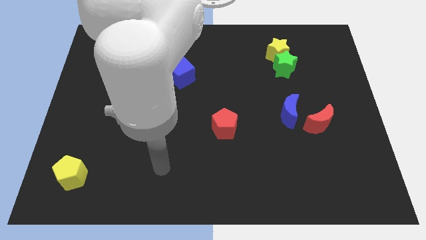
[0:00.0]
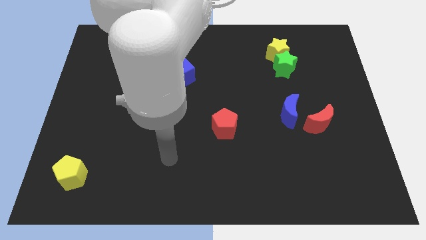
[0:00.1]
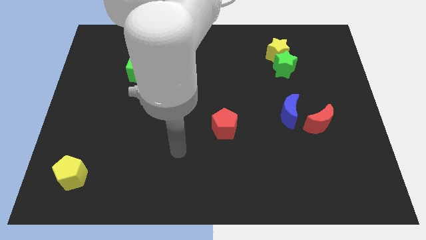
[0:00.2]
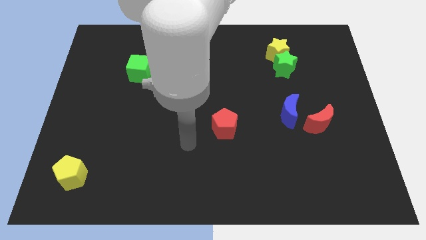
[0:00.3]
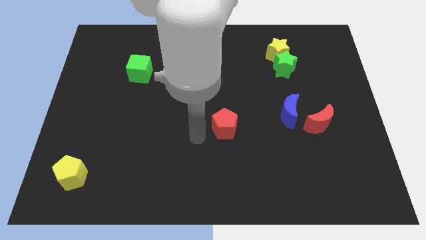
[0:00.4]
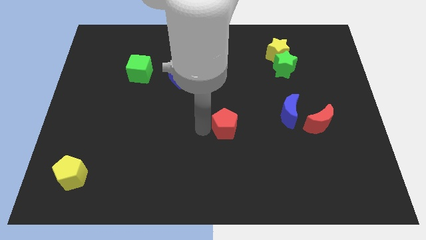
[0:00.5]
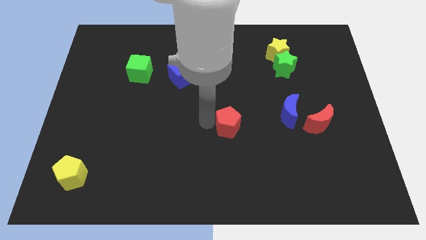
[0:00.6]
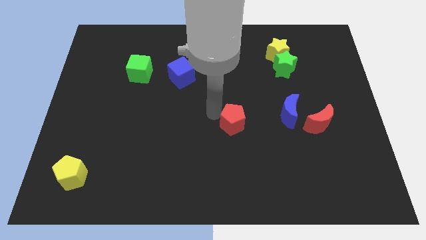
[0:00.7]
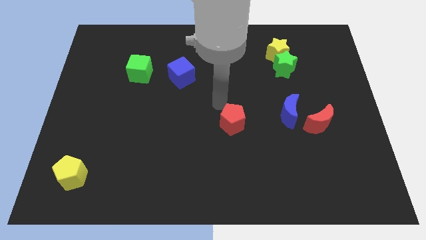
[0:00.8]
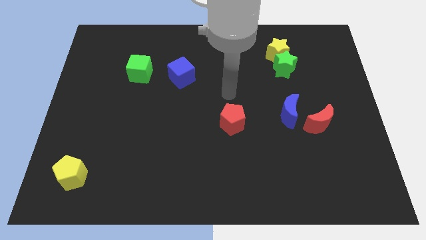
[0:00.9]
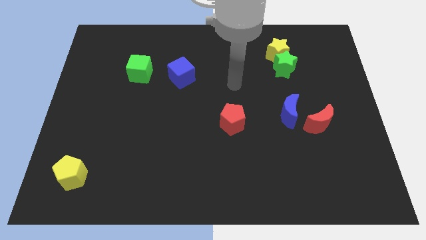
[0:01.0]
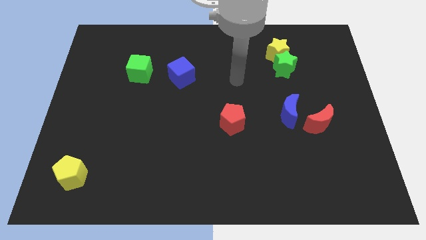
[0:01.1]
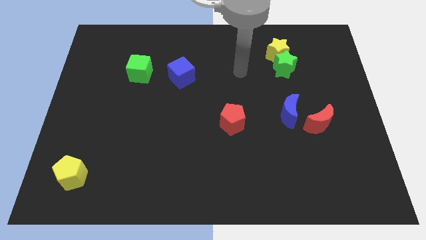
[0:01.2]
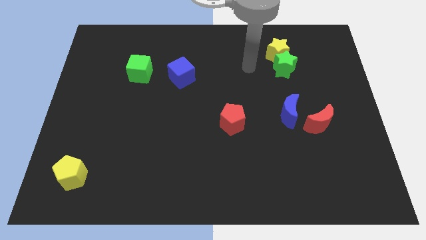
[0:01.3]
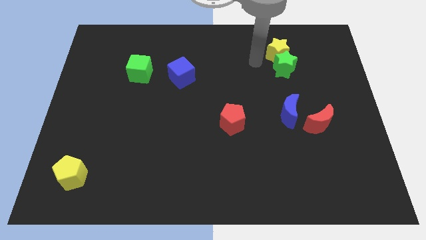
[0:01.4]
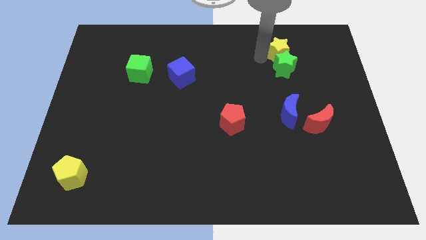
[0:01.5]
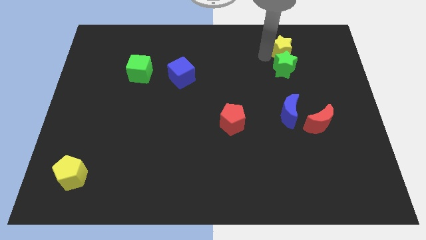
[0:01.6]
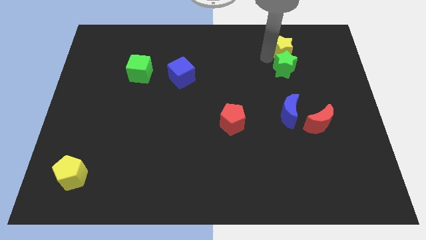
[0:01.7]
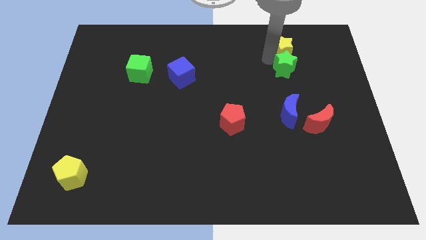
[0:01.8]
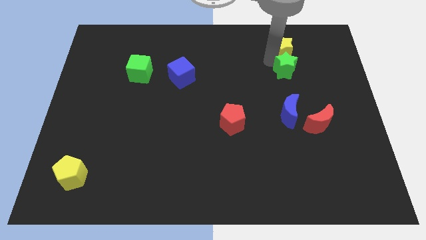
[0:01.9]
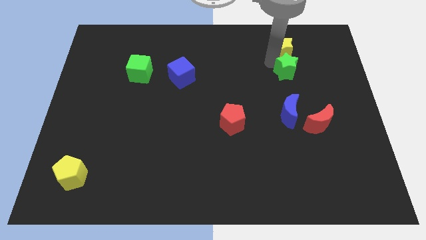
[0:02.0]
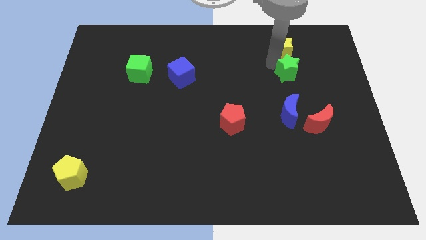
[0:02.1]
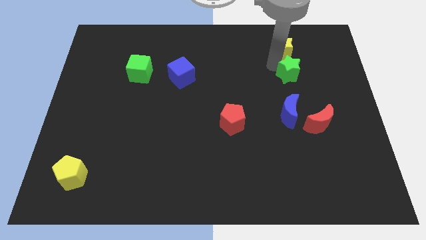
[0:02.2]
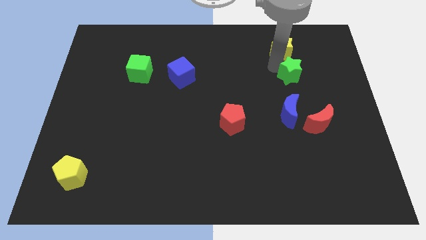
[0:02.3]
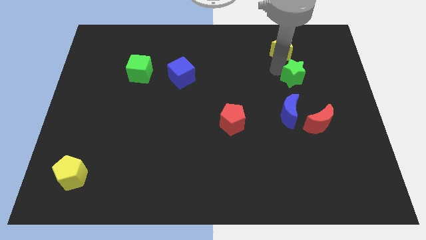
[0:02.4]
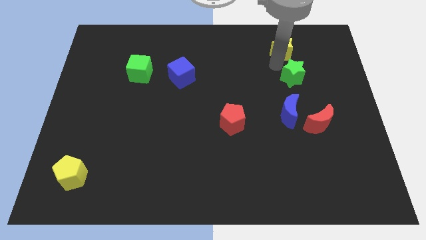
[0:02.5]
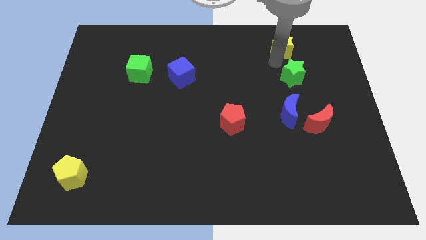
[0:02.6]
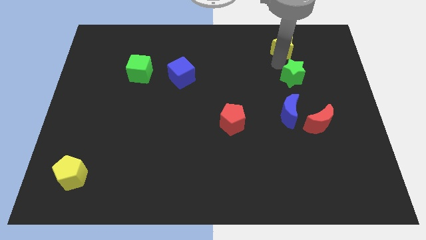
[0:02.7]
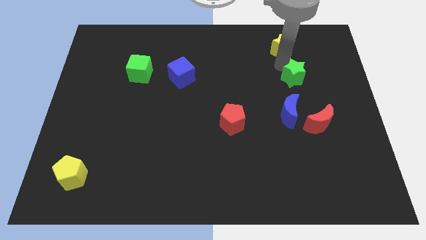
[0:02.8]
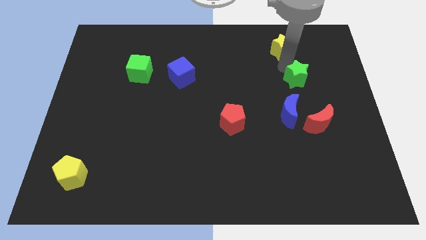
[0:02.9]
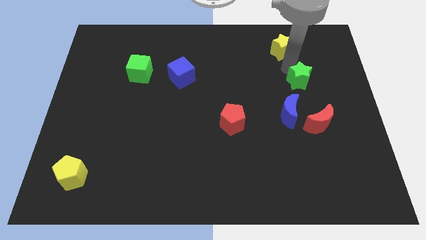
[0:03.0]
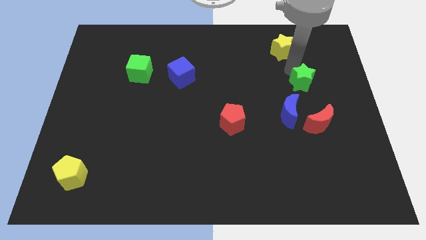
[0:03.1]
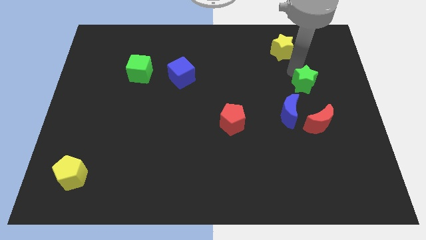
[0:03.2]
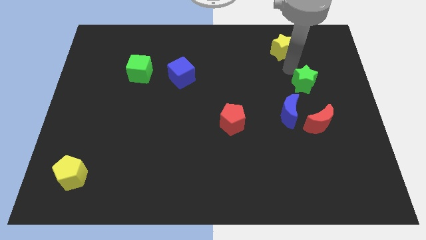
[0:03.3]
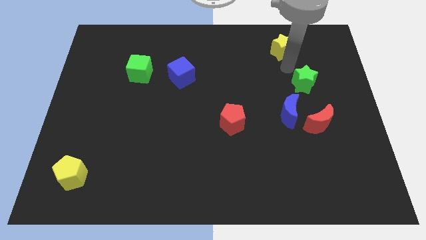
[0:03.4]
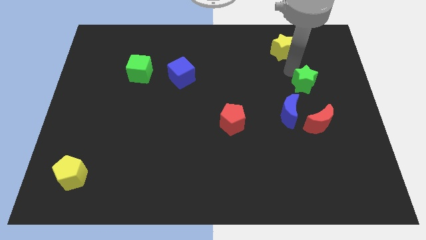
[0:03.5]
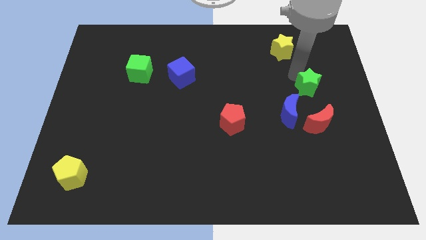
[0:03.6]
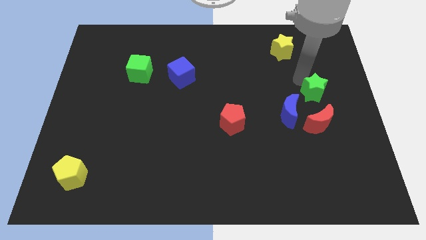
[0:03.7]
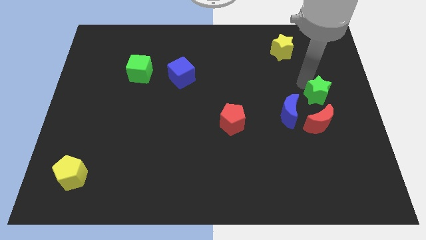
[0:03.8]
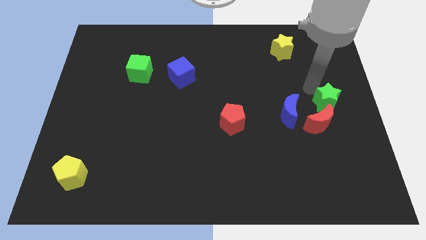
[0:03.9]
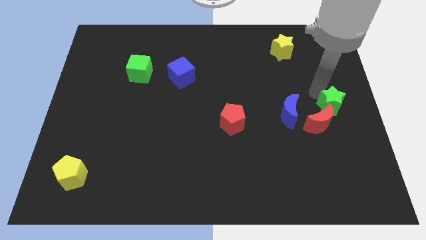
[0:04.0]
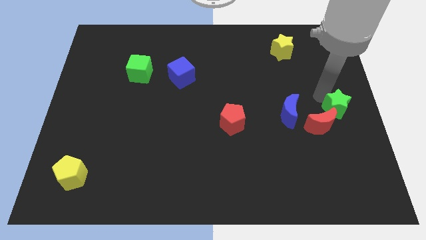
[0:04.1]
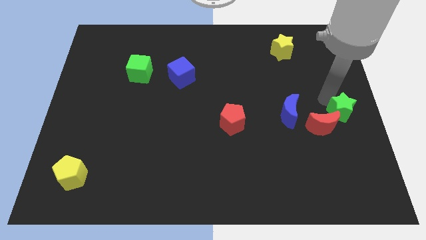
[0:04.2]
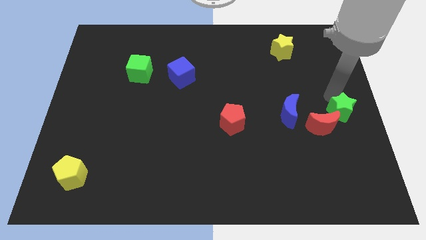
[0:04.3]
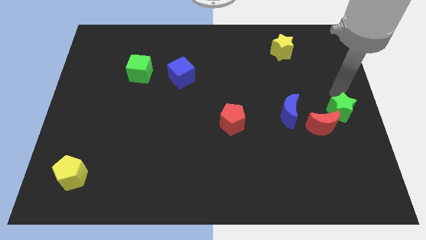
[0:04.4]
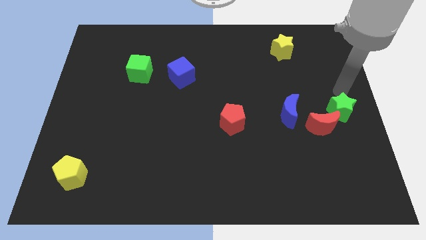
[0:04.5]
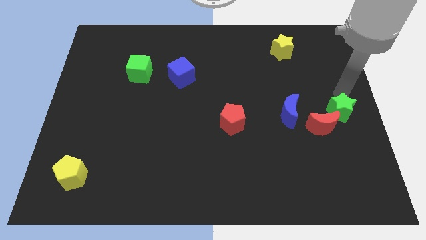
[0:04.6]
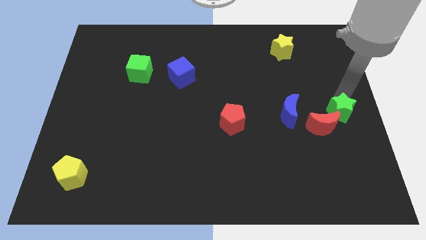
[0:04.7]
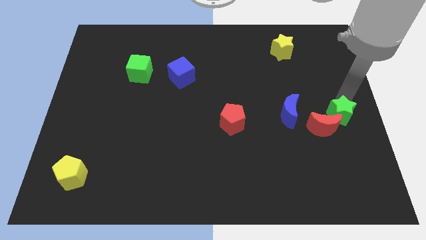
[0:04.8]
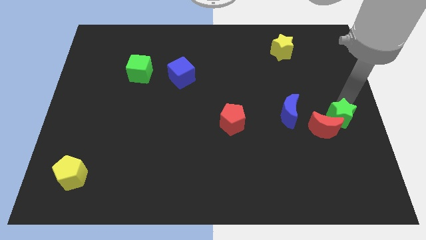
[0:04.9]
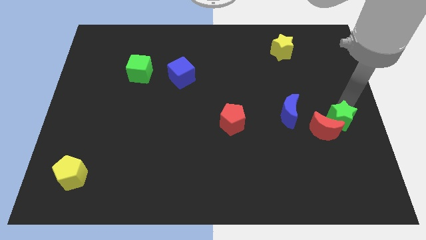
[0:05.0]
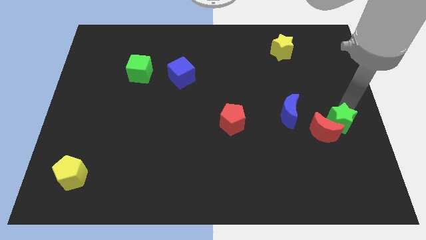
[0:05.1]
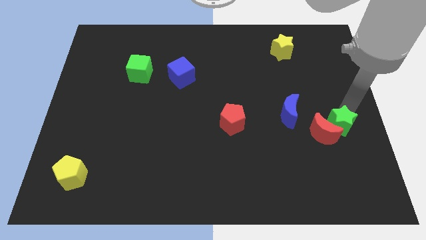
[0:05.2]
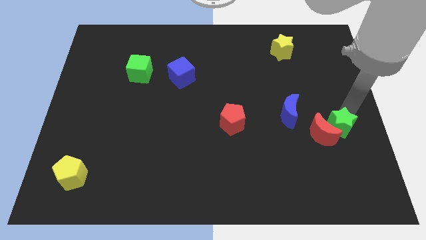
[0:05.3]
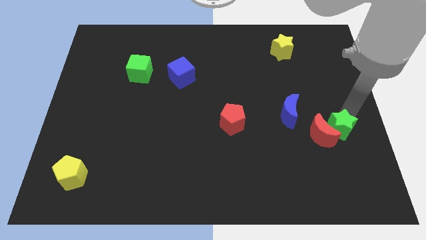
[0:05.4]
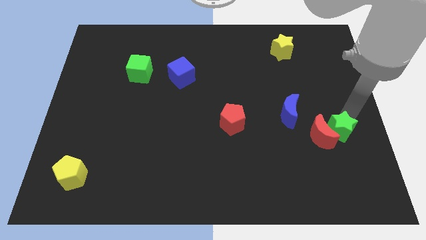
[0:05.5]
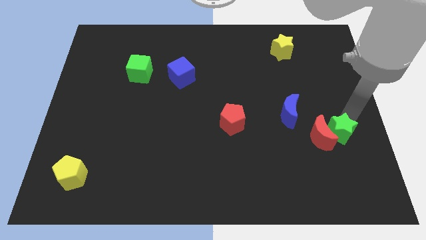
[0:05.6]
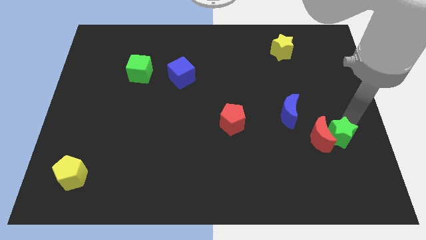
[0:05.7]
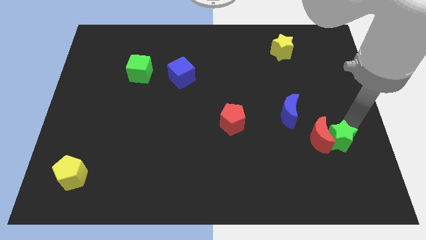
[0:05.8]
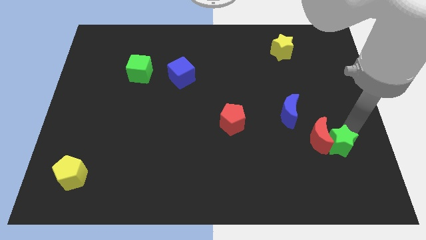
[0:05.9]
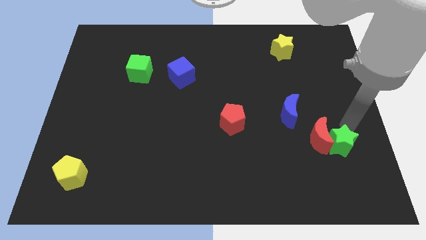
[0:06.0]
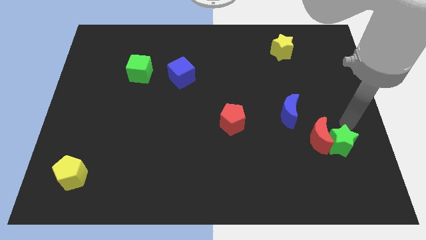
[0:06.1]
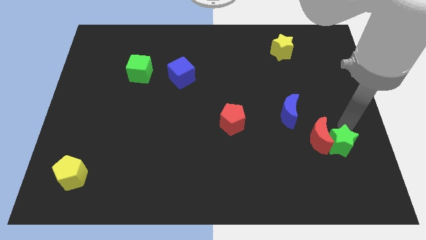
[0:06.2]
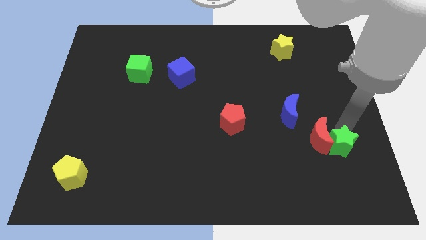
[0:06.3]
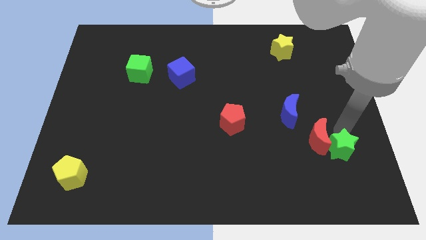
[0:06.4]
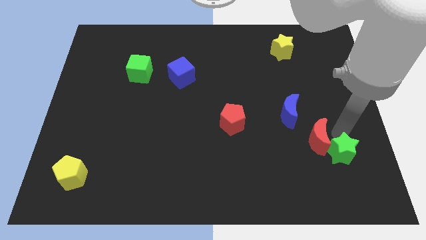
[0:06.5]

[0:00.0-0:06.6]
slide the green star to the bottom of the red moon

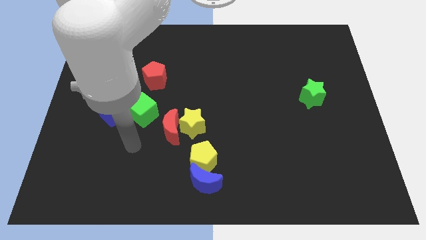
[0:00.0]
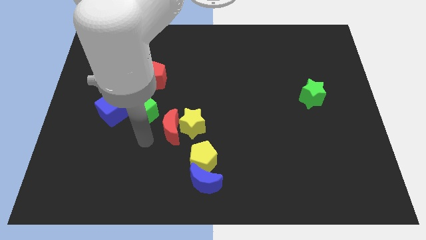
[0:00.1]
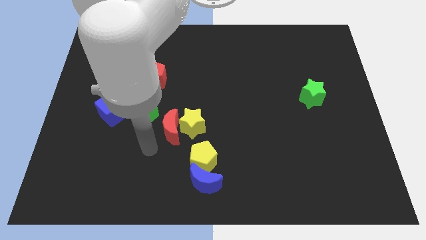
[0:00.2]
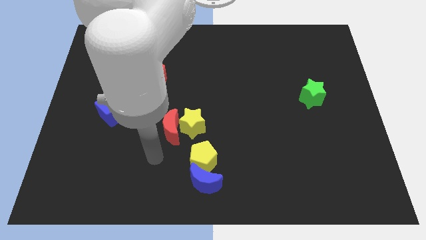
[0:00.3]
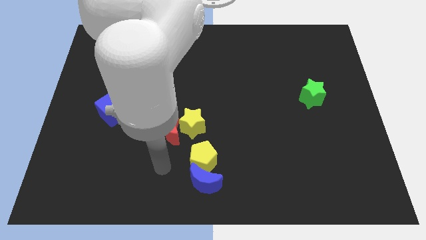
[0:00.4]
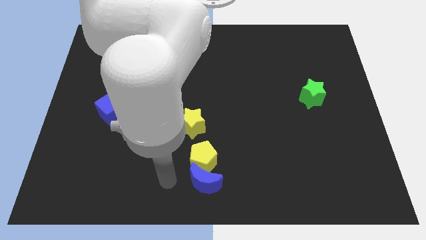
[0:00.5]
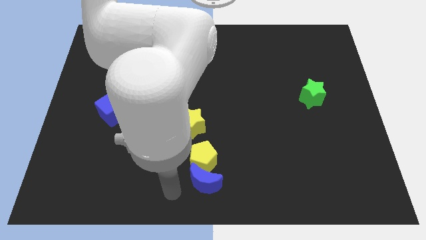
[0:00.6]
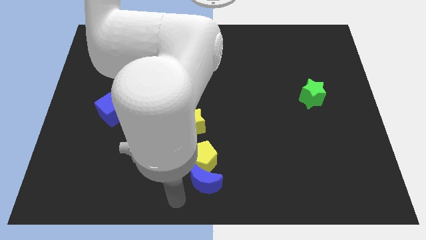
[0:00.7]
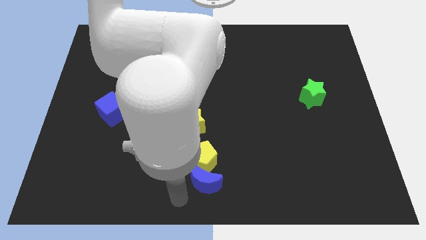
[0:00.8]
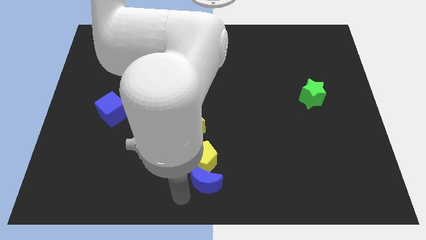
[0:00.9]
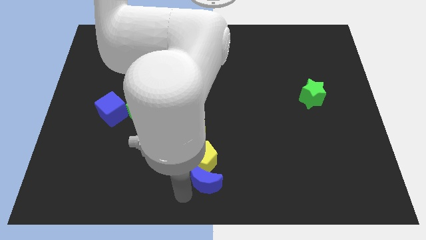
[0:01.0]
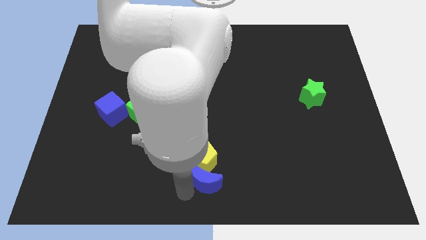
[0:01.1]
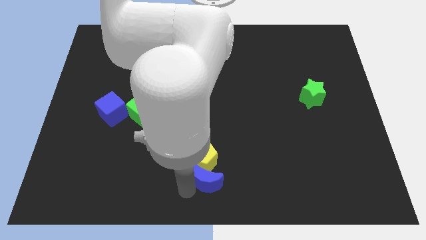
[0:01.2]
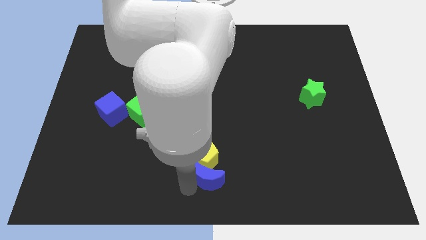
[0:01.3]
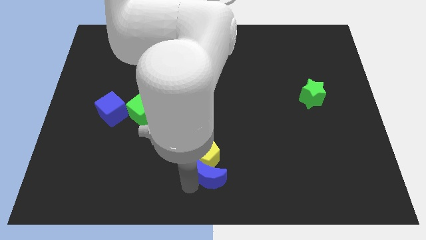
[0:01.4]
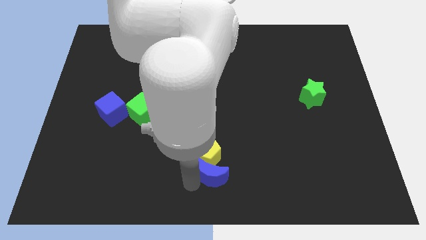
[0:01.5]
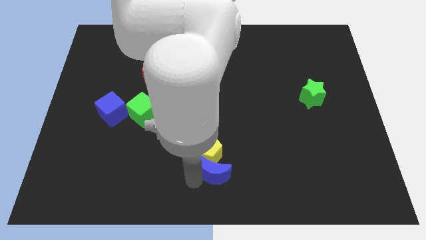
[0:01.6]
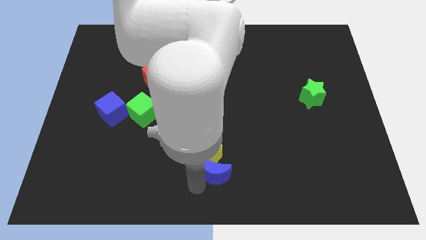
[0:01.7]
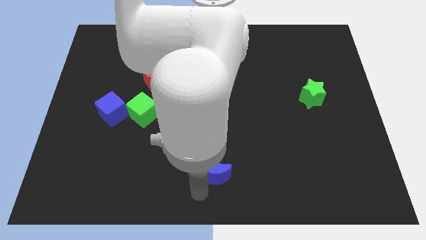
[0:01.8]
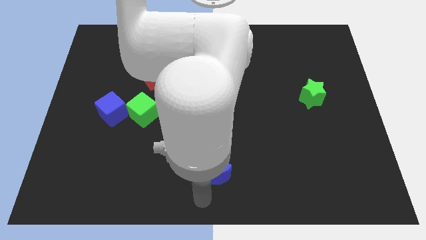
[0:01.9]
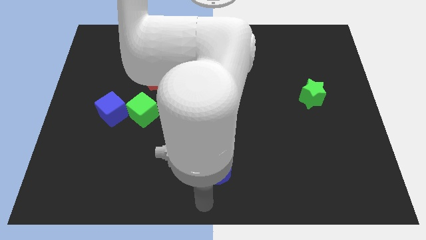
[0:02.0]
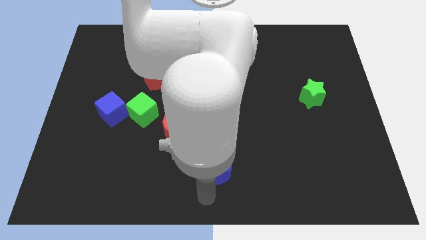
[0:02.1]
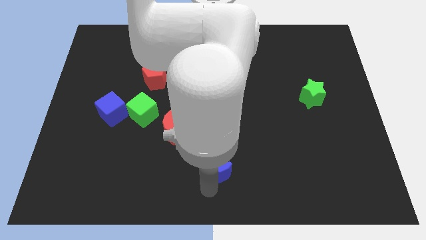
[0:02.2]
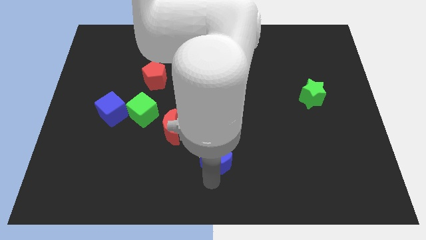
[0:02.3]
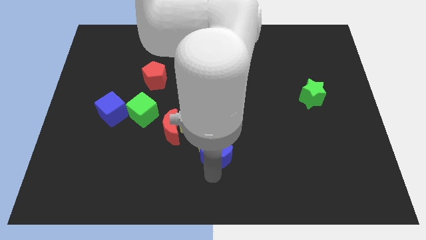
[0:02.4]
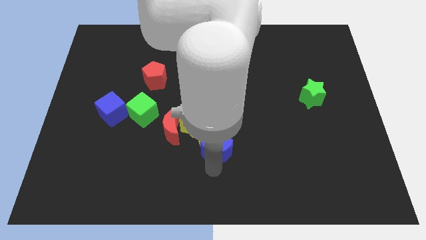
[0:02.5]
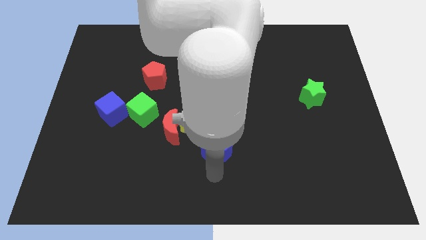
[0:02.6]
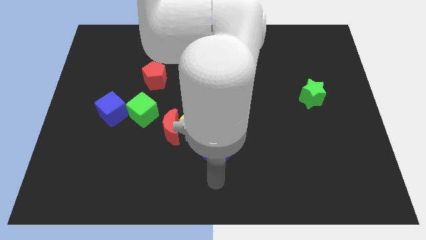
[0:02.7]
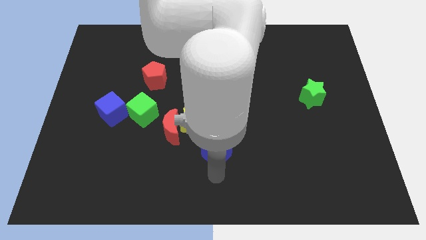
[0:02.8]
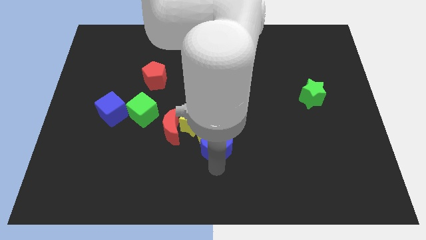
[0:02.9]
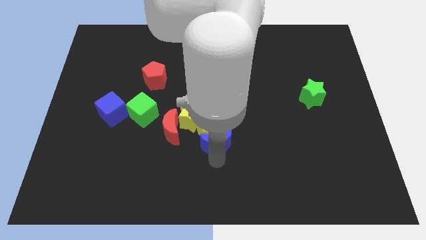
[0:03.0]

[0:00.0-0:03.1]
move the blue moon right of the red moon
